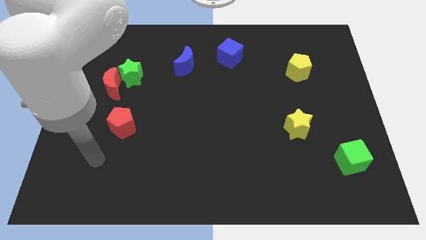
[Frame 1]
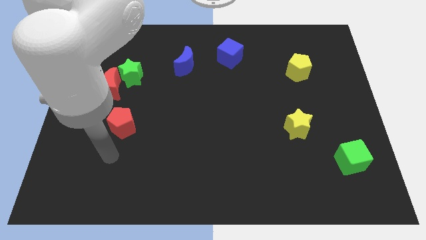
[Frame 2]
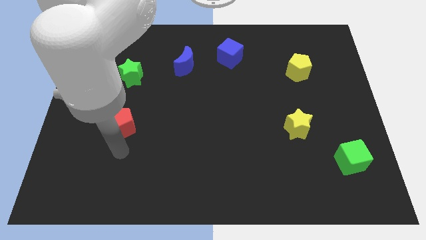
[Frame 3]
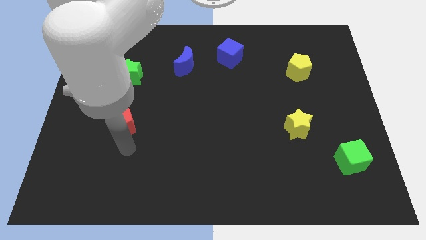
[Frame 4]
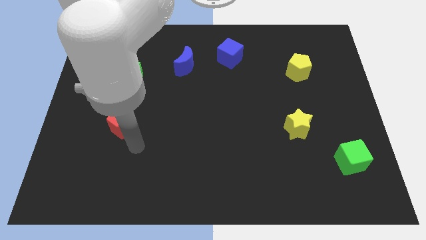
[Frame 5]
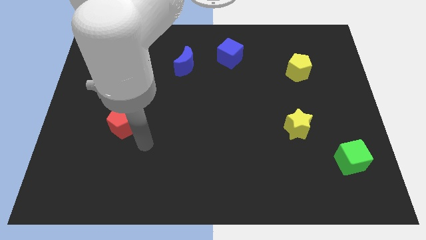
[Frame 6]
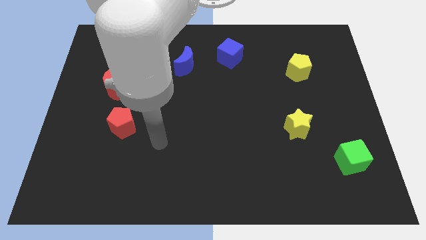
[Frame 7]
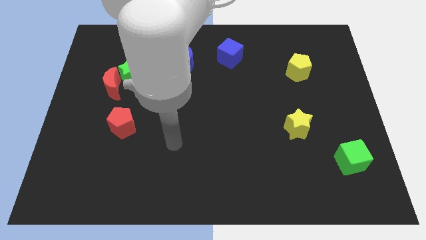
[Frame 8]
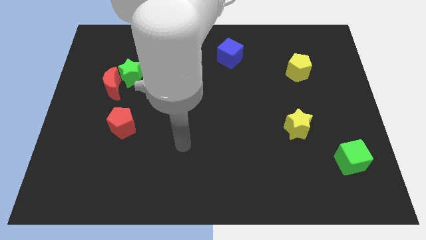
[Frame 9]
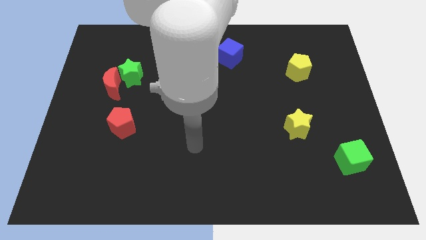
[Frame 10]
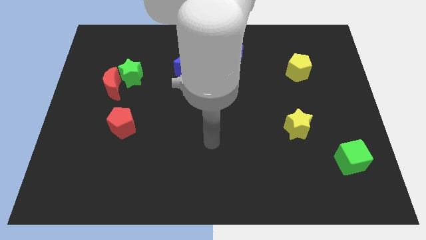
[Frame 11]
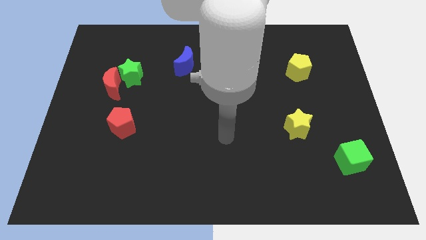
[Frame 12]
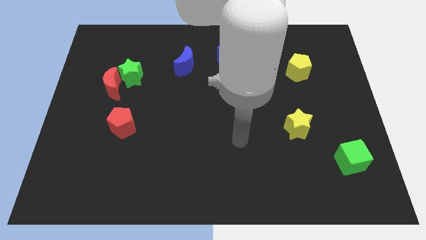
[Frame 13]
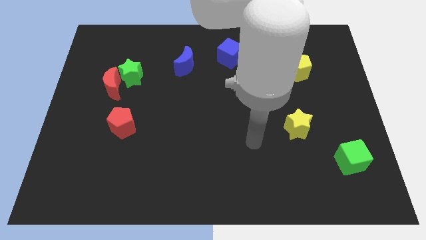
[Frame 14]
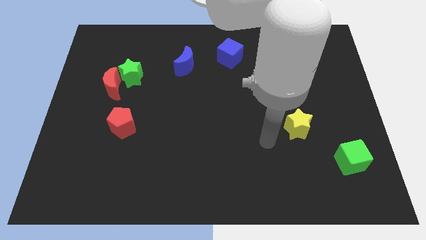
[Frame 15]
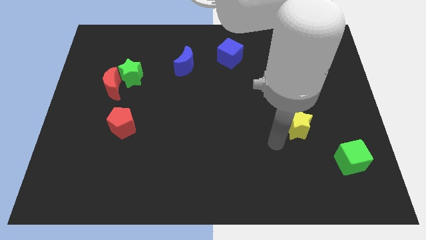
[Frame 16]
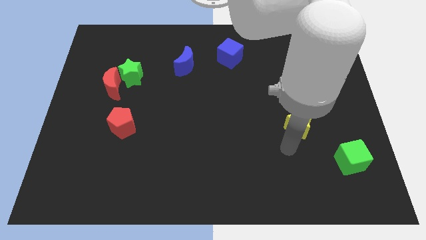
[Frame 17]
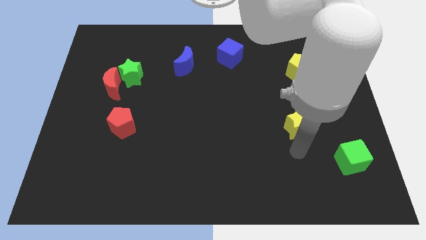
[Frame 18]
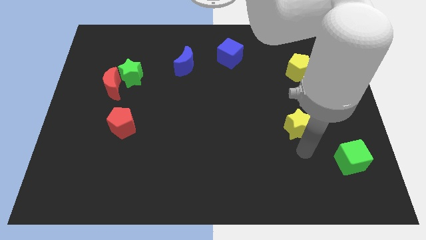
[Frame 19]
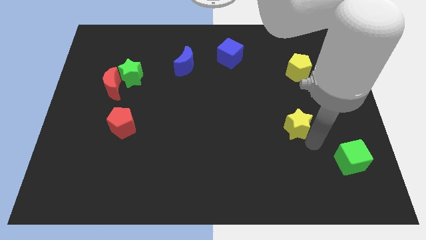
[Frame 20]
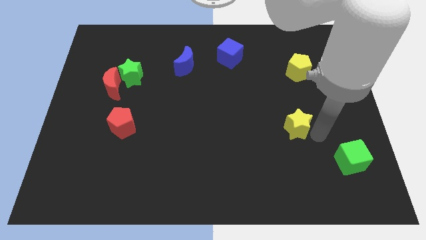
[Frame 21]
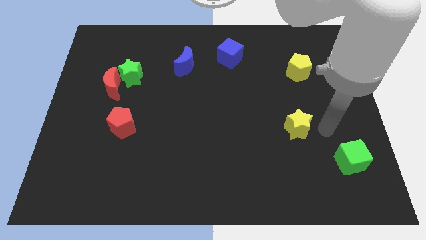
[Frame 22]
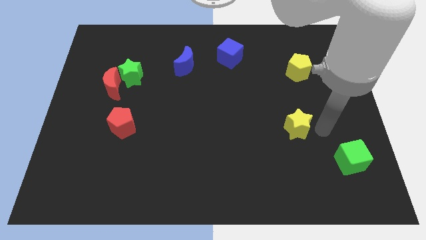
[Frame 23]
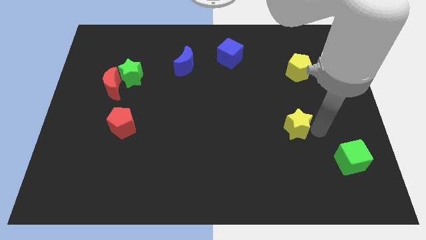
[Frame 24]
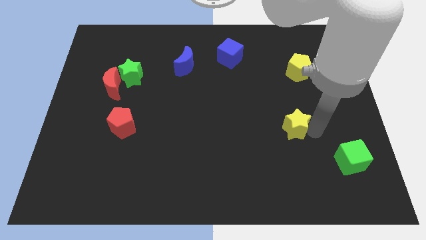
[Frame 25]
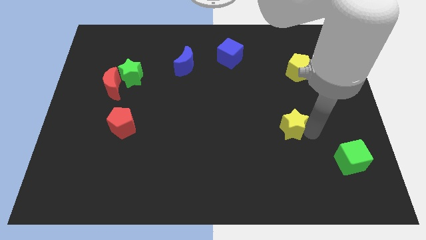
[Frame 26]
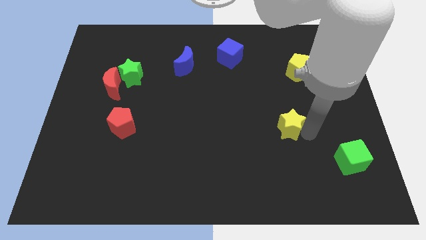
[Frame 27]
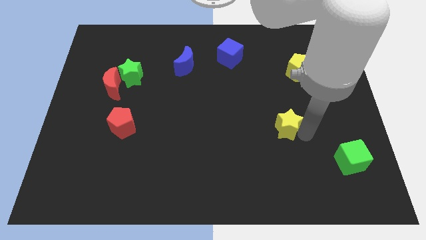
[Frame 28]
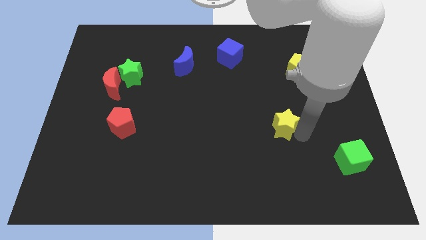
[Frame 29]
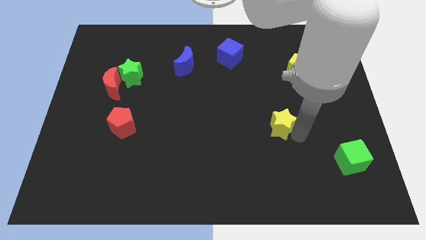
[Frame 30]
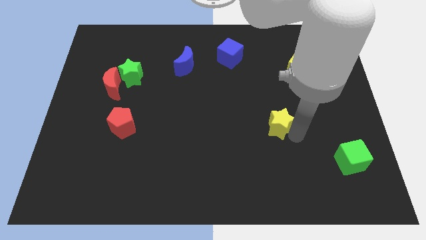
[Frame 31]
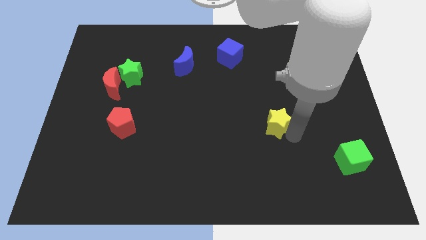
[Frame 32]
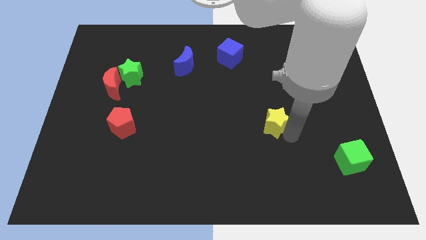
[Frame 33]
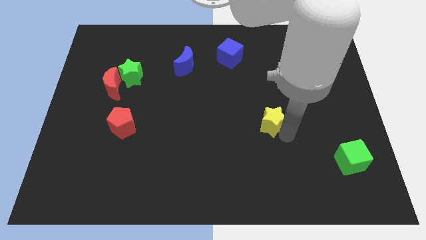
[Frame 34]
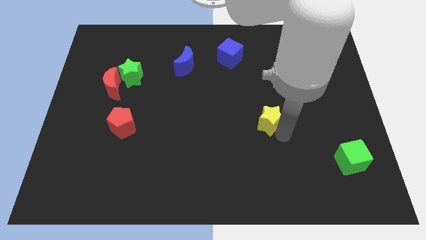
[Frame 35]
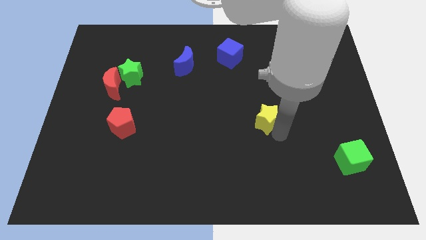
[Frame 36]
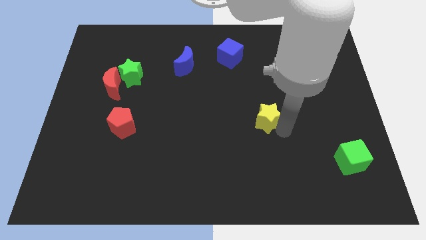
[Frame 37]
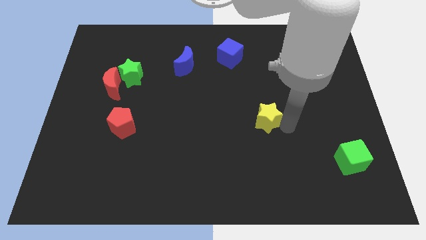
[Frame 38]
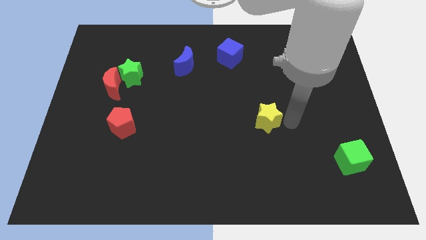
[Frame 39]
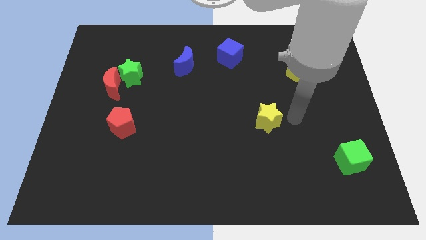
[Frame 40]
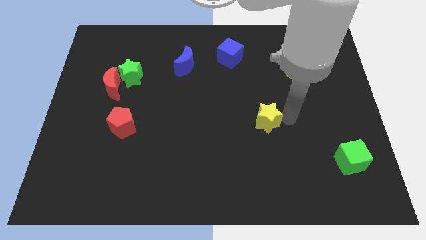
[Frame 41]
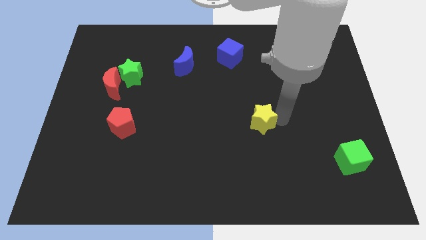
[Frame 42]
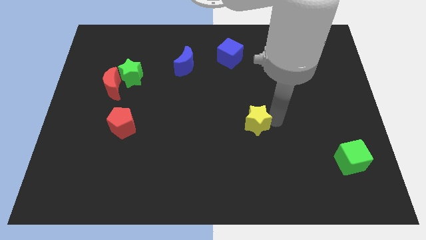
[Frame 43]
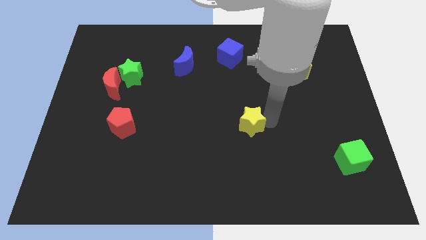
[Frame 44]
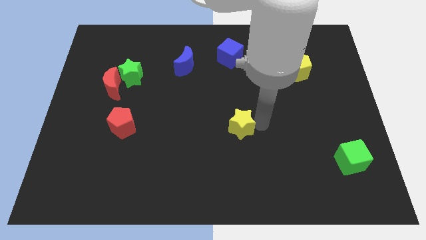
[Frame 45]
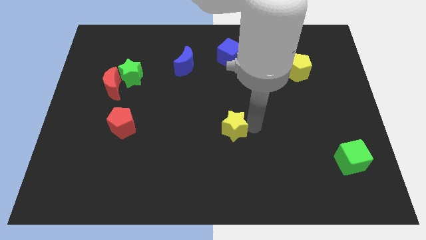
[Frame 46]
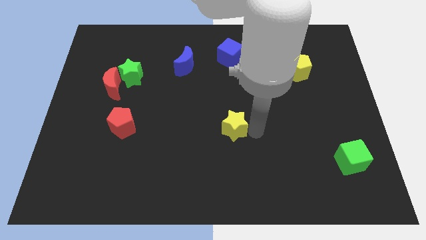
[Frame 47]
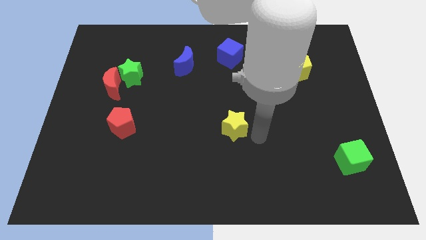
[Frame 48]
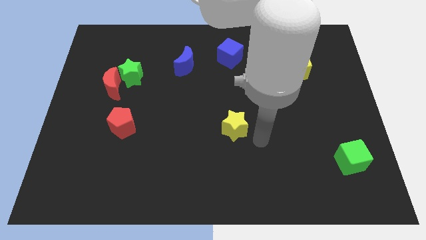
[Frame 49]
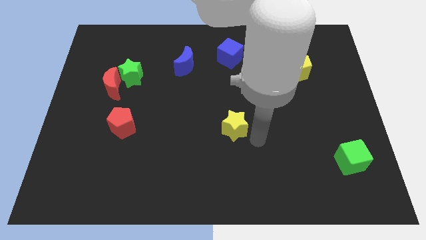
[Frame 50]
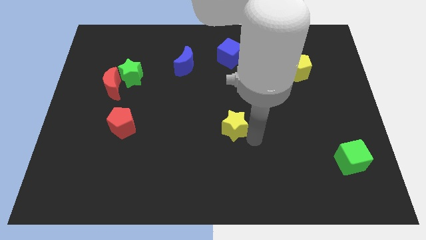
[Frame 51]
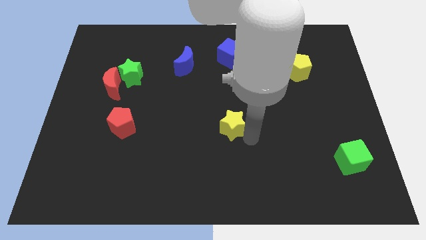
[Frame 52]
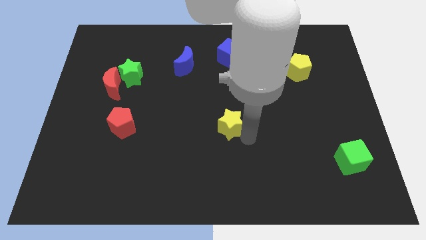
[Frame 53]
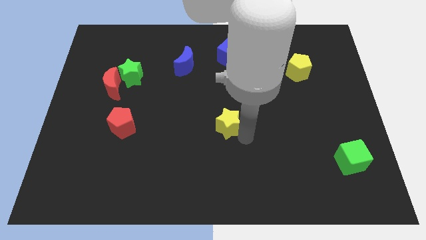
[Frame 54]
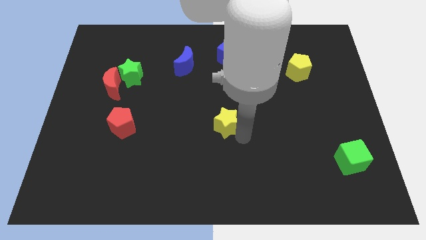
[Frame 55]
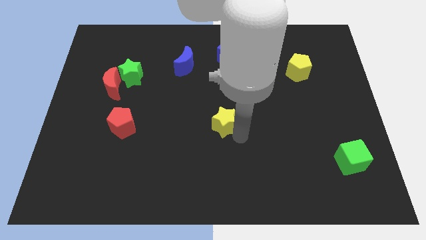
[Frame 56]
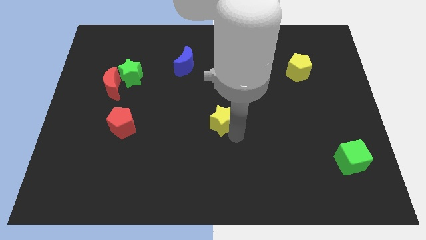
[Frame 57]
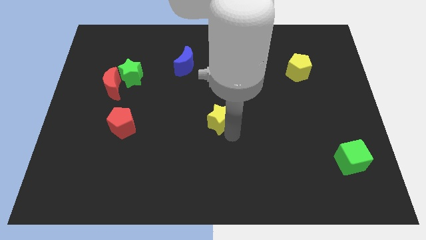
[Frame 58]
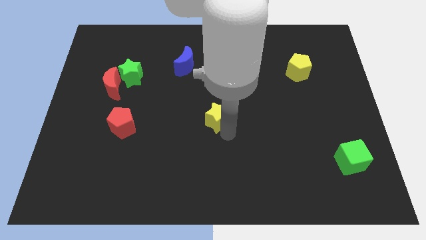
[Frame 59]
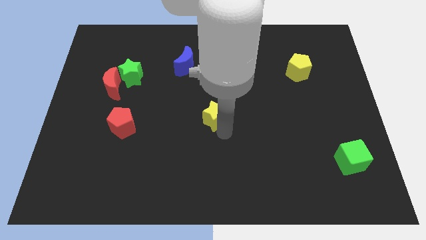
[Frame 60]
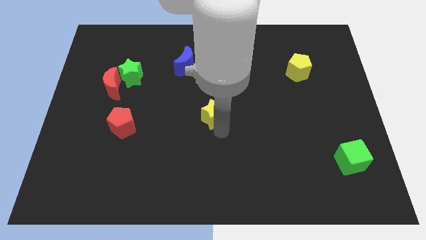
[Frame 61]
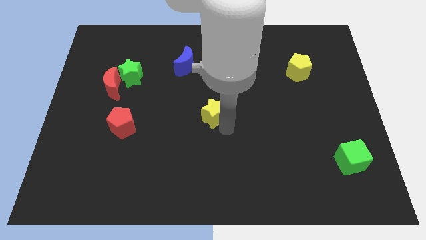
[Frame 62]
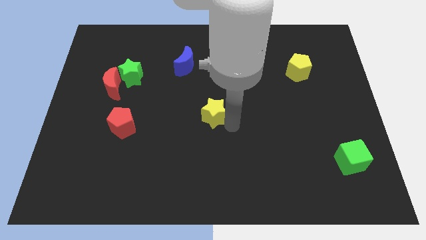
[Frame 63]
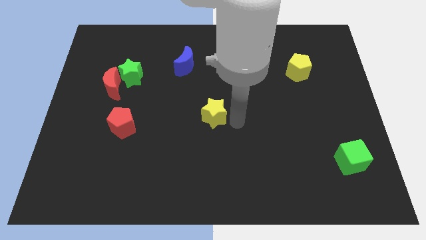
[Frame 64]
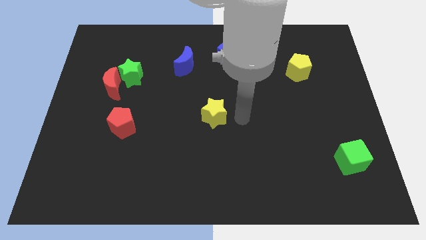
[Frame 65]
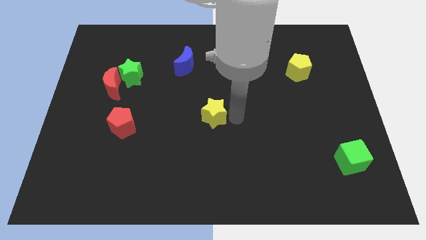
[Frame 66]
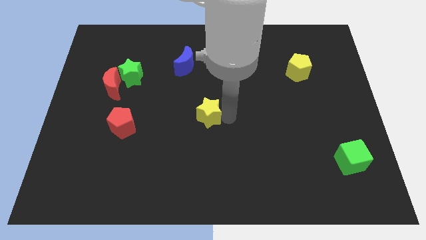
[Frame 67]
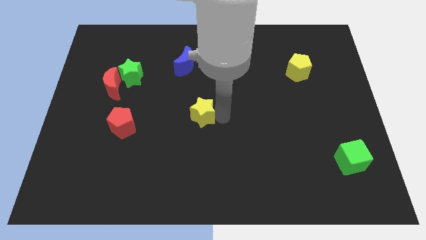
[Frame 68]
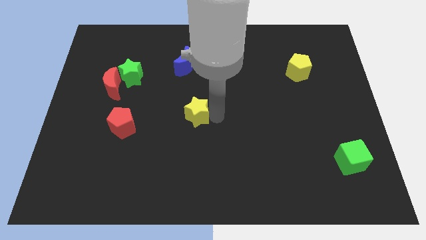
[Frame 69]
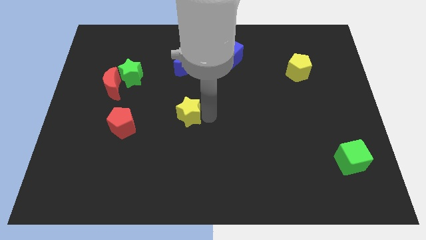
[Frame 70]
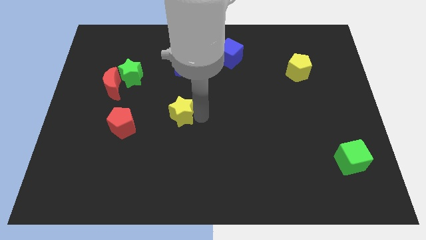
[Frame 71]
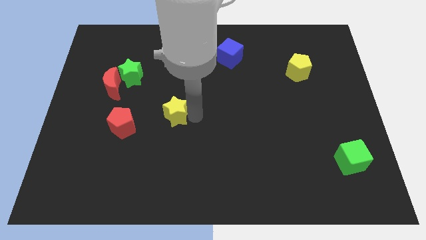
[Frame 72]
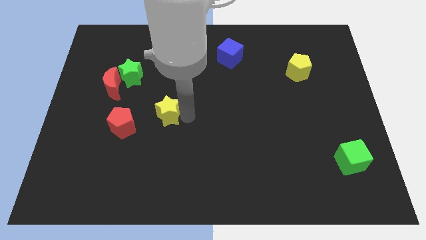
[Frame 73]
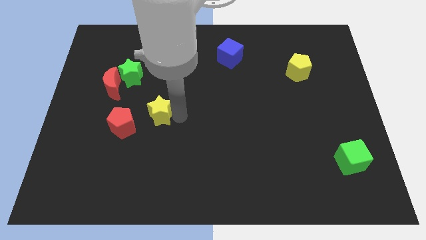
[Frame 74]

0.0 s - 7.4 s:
slide the yellow star to the top right side of the red pentagon
